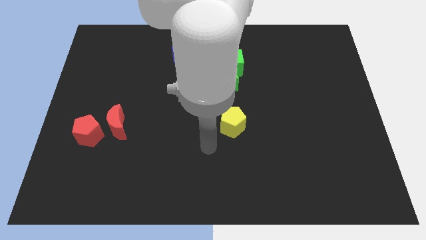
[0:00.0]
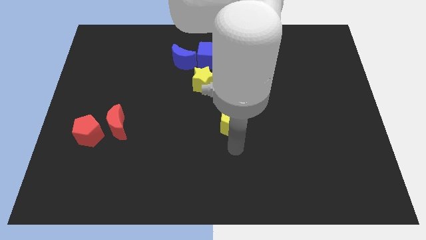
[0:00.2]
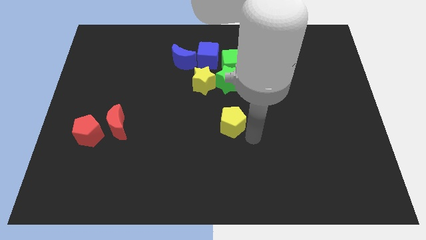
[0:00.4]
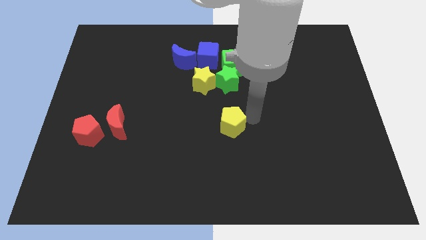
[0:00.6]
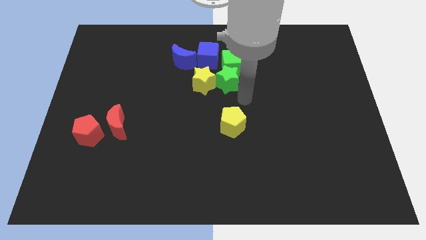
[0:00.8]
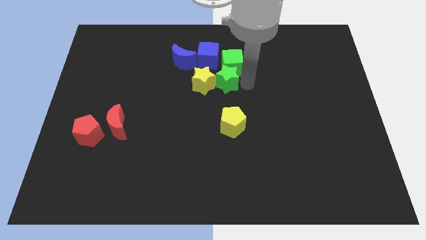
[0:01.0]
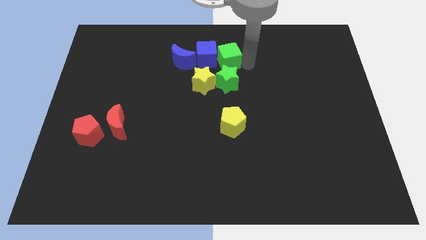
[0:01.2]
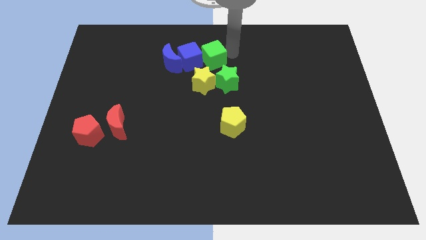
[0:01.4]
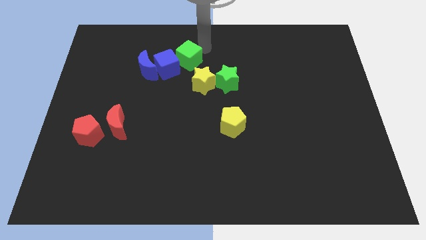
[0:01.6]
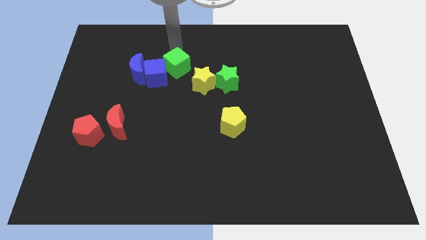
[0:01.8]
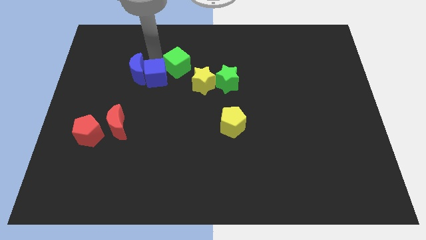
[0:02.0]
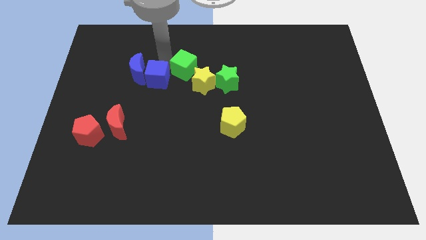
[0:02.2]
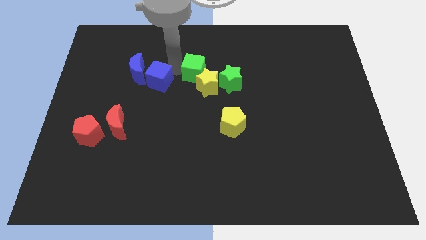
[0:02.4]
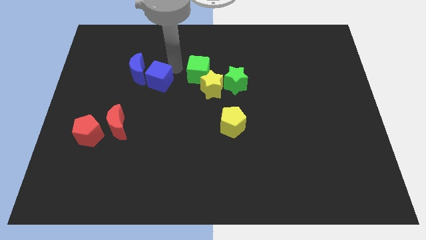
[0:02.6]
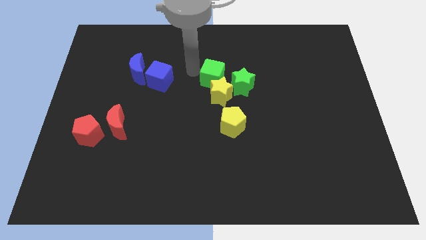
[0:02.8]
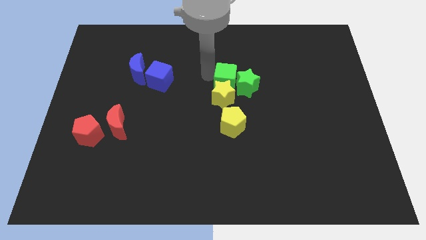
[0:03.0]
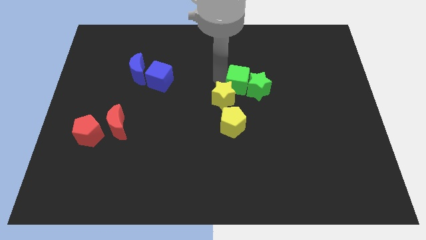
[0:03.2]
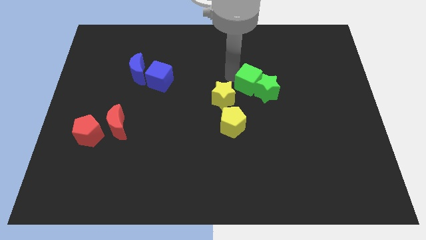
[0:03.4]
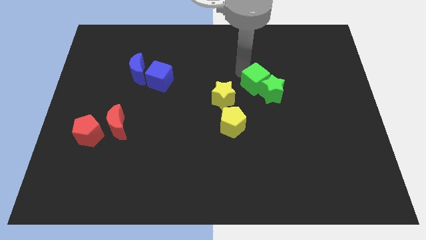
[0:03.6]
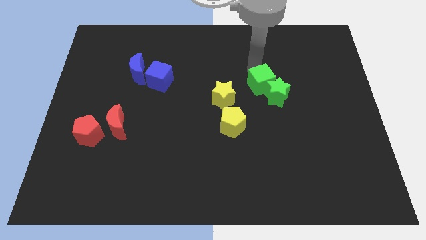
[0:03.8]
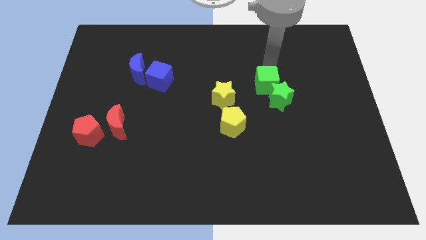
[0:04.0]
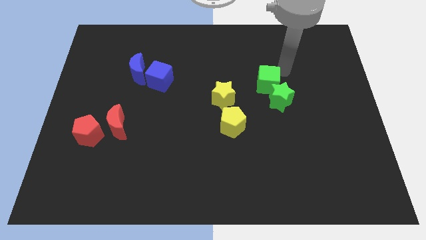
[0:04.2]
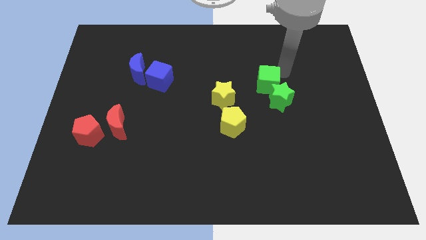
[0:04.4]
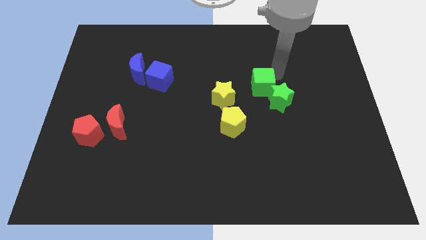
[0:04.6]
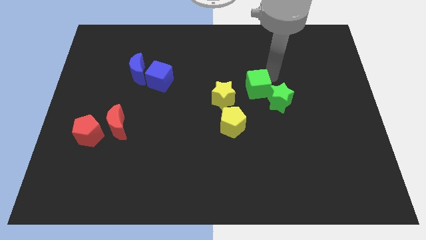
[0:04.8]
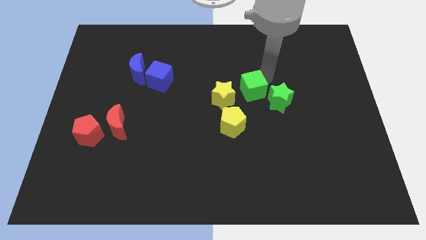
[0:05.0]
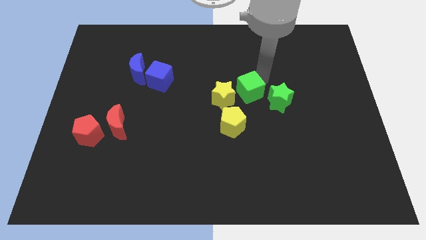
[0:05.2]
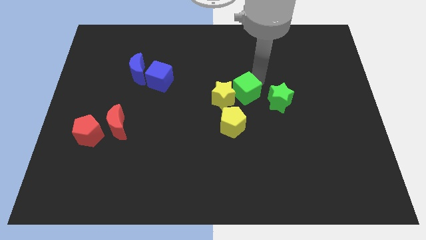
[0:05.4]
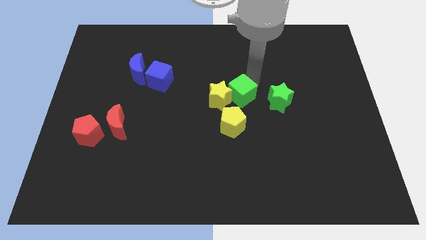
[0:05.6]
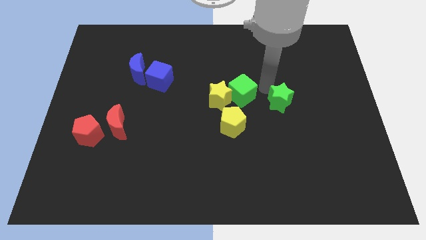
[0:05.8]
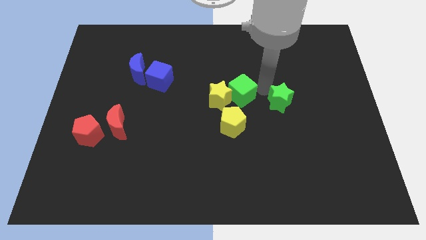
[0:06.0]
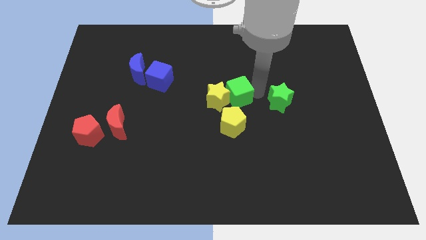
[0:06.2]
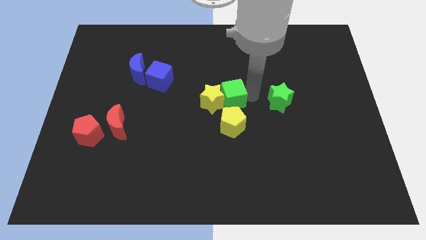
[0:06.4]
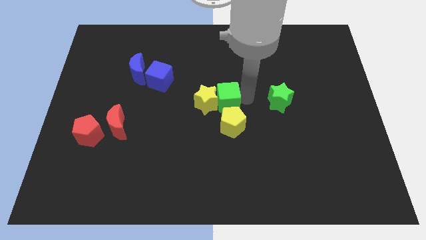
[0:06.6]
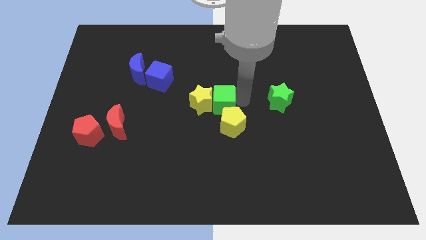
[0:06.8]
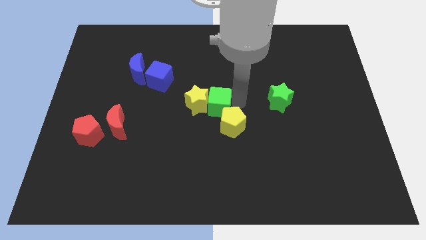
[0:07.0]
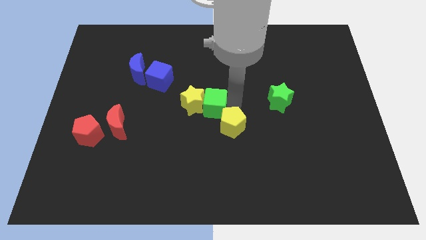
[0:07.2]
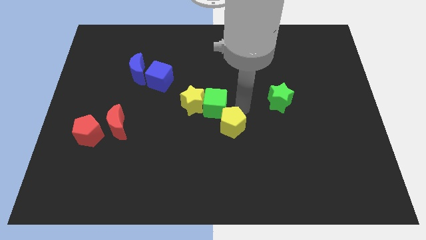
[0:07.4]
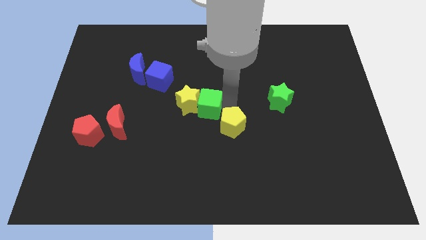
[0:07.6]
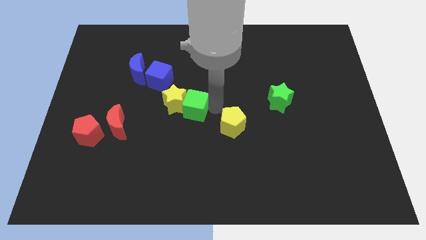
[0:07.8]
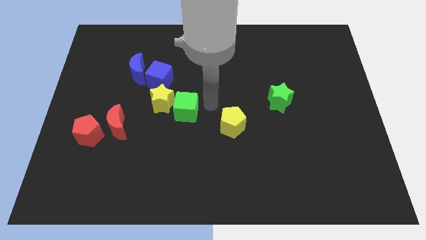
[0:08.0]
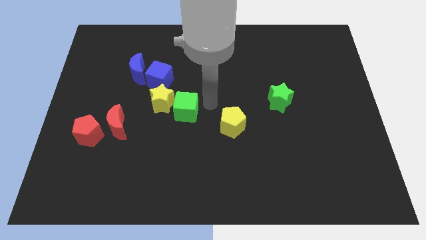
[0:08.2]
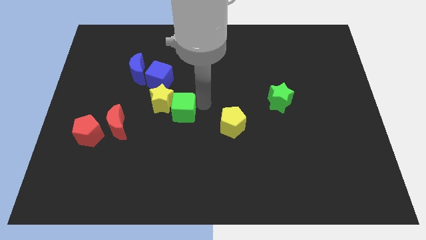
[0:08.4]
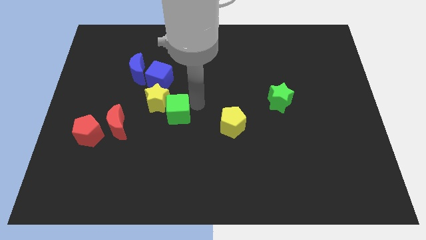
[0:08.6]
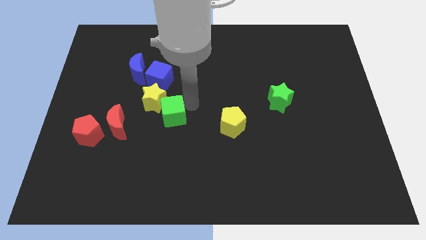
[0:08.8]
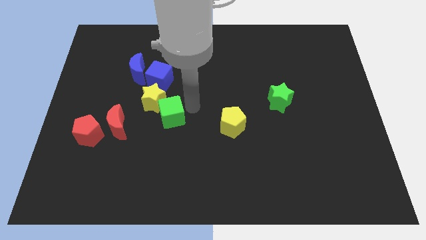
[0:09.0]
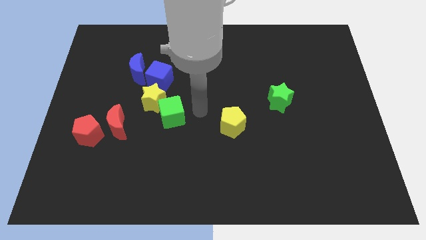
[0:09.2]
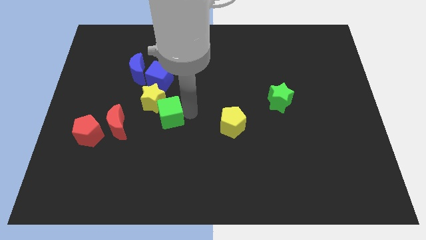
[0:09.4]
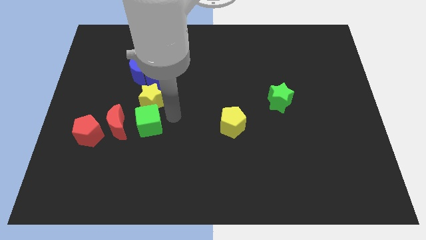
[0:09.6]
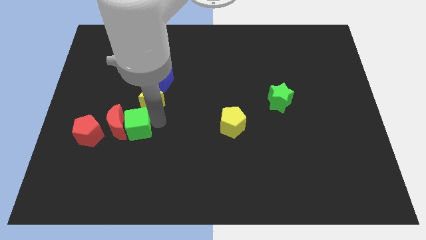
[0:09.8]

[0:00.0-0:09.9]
slide the green cube to the red moon

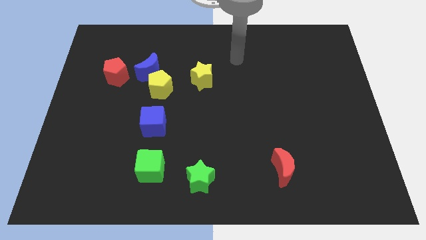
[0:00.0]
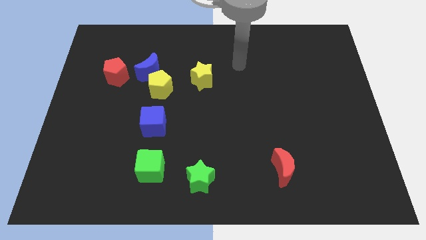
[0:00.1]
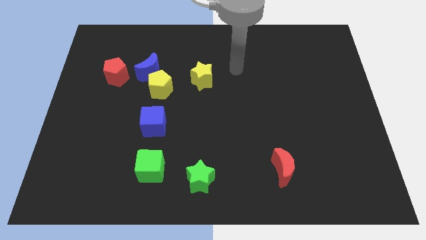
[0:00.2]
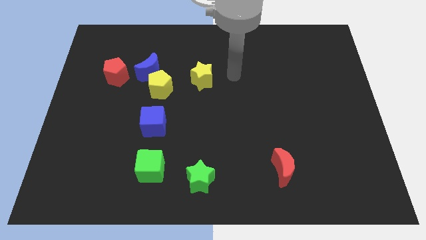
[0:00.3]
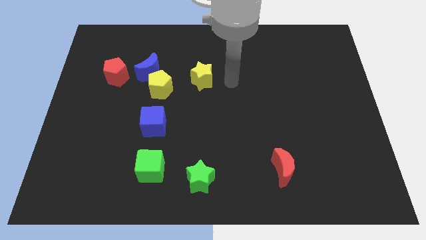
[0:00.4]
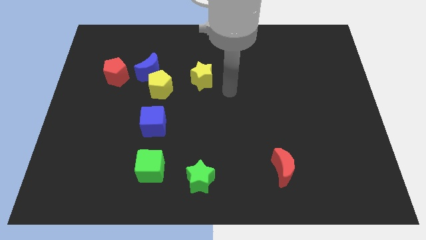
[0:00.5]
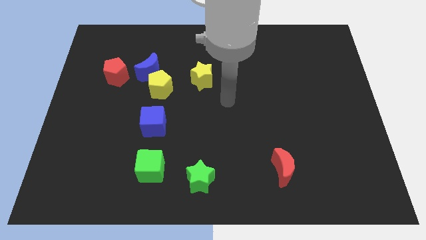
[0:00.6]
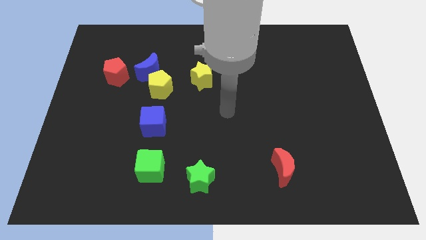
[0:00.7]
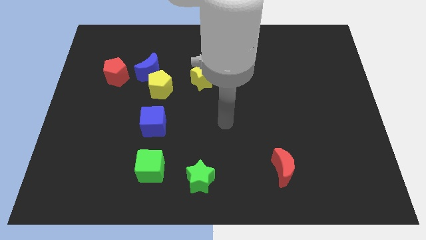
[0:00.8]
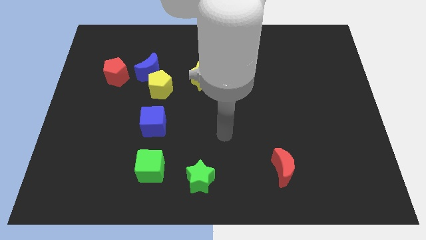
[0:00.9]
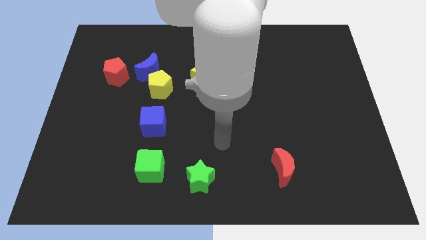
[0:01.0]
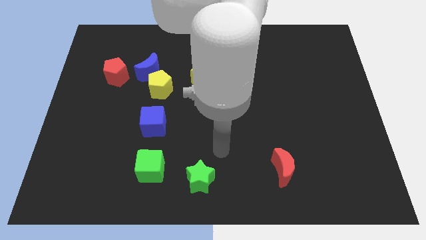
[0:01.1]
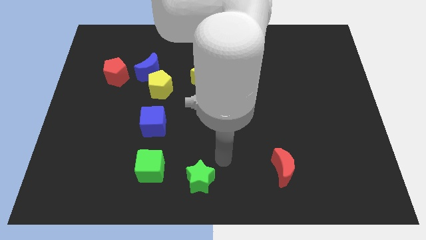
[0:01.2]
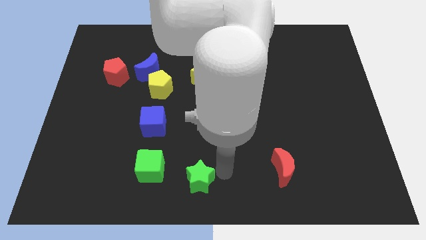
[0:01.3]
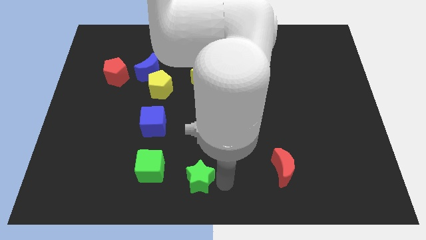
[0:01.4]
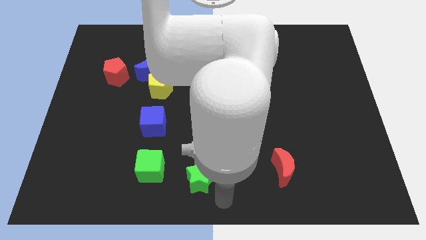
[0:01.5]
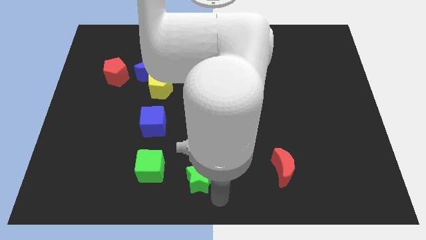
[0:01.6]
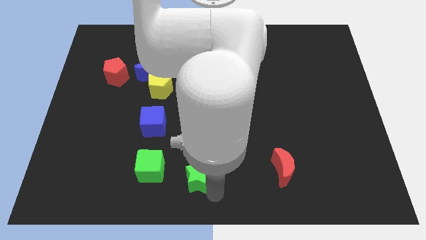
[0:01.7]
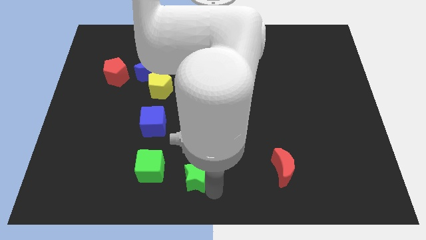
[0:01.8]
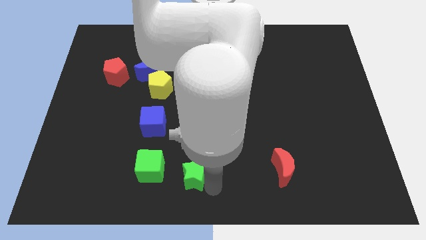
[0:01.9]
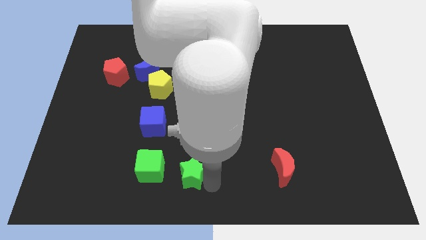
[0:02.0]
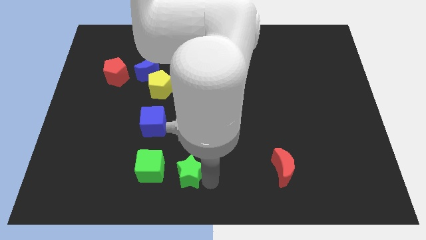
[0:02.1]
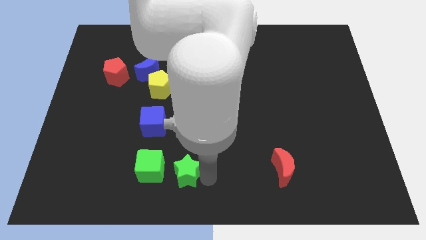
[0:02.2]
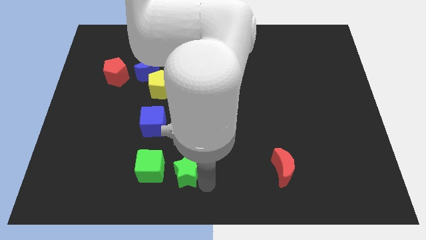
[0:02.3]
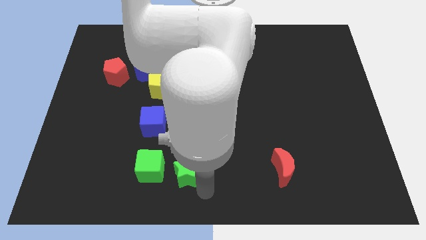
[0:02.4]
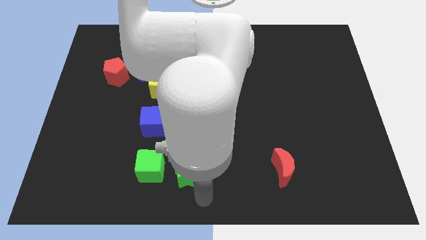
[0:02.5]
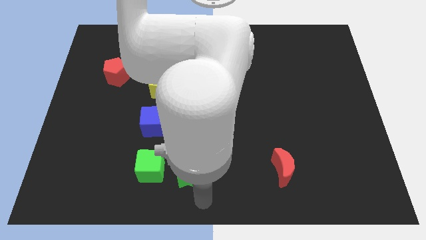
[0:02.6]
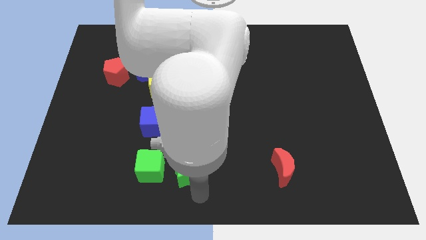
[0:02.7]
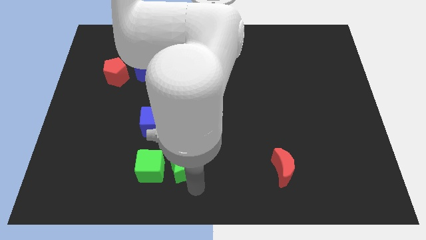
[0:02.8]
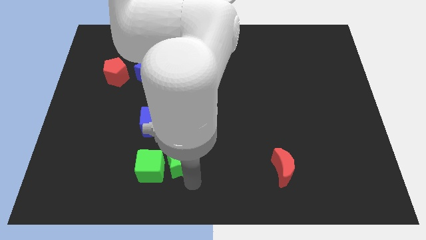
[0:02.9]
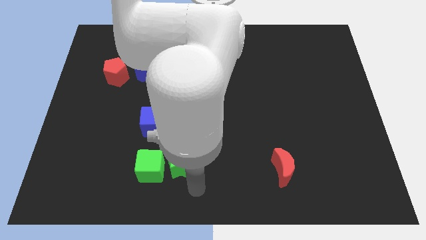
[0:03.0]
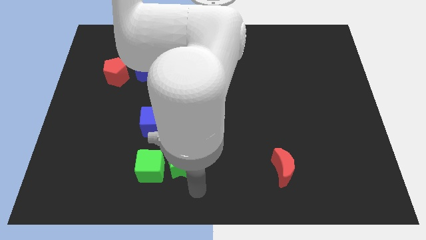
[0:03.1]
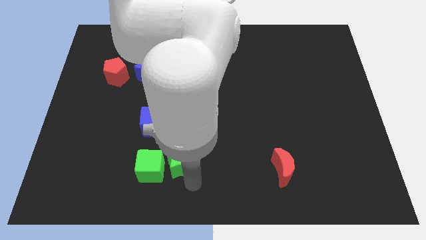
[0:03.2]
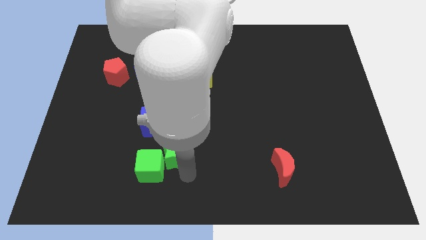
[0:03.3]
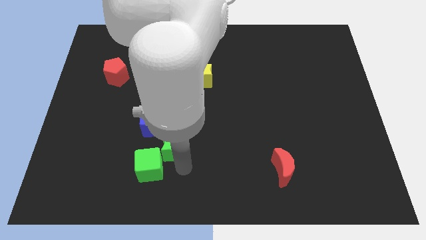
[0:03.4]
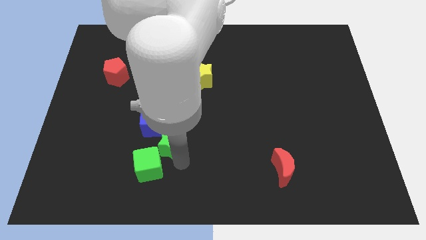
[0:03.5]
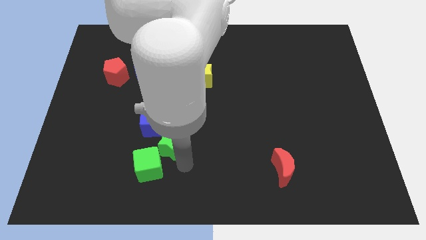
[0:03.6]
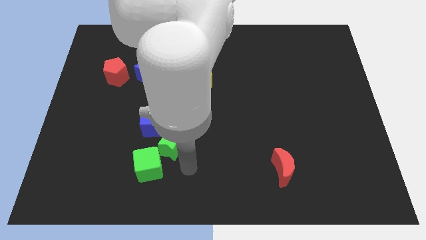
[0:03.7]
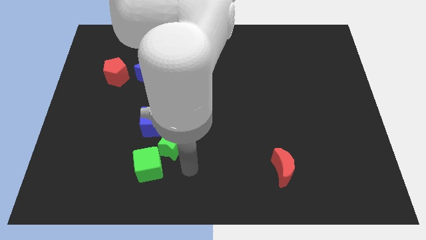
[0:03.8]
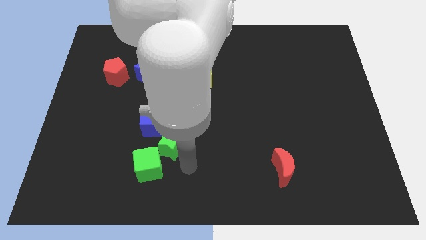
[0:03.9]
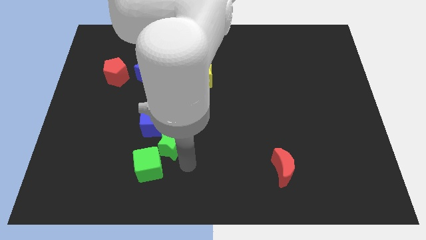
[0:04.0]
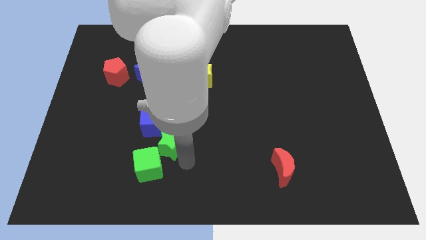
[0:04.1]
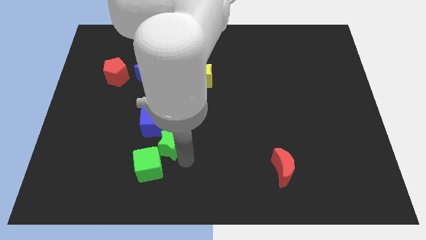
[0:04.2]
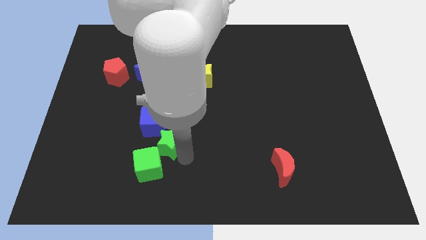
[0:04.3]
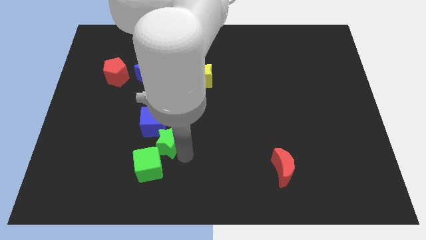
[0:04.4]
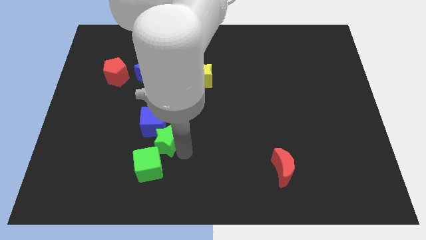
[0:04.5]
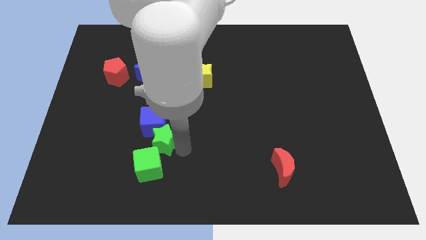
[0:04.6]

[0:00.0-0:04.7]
put the green star towards the blue cube
